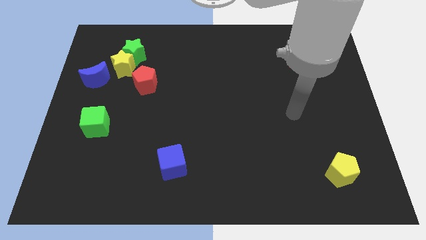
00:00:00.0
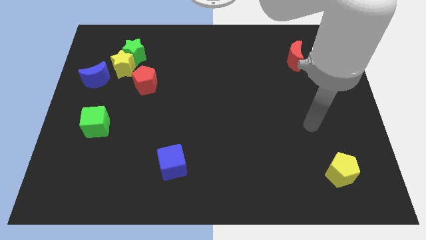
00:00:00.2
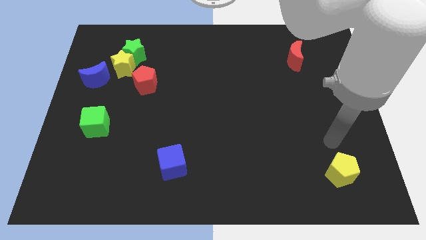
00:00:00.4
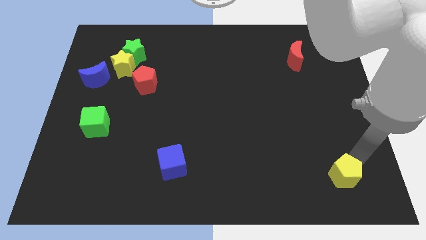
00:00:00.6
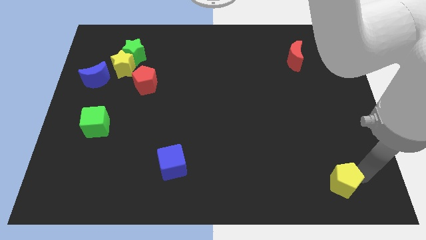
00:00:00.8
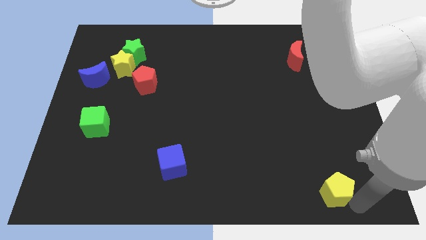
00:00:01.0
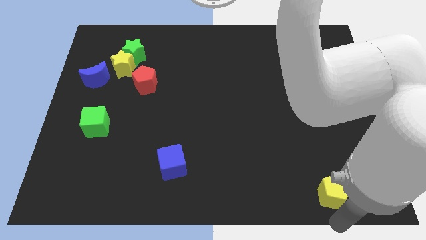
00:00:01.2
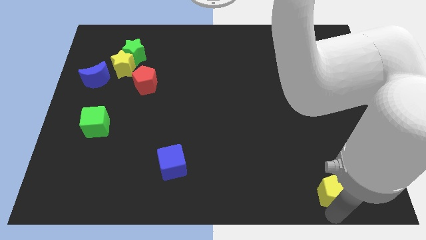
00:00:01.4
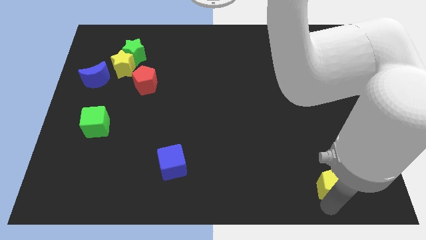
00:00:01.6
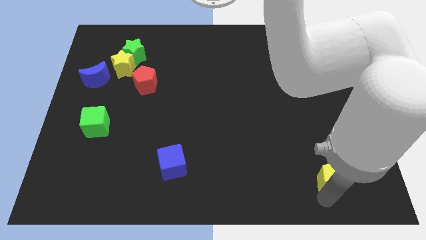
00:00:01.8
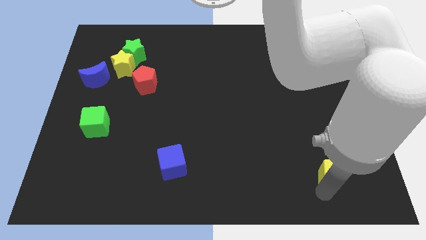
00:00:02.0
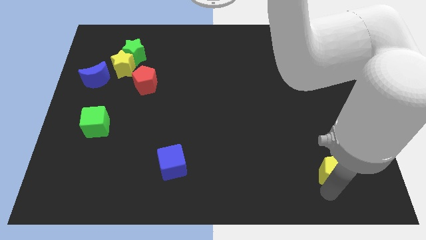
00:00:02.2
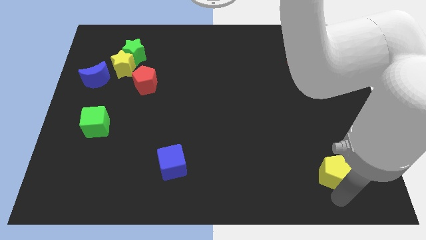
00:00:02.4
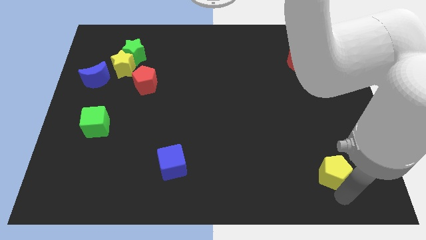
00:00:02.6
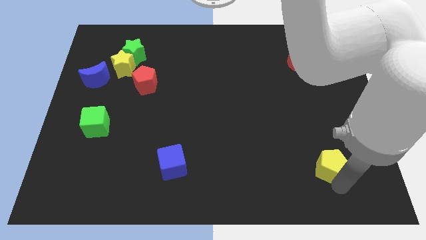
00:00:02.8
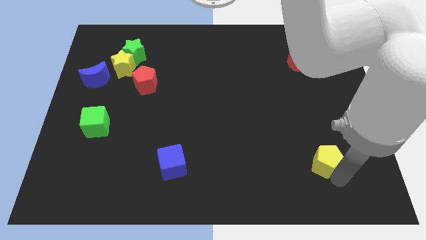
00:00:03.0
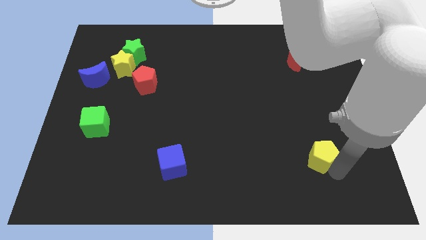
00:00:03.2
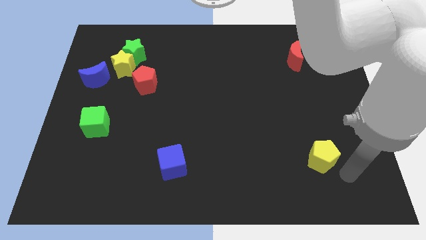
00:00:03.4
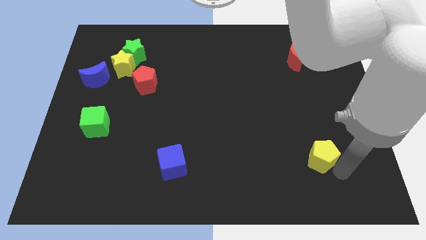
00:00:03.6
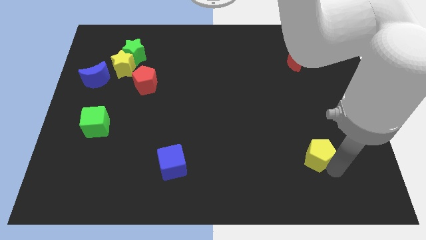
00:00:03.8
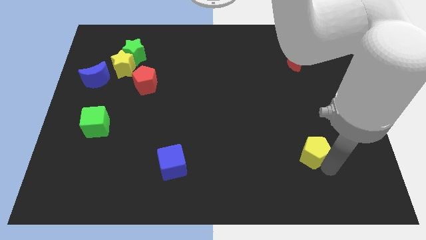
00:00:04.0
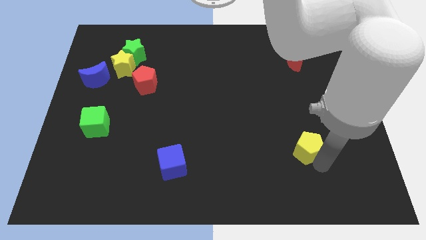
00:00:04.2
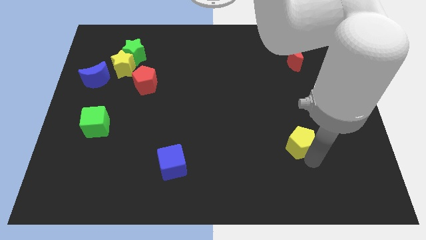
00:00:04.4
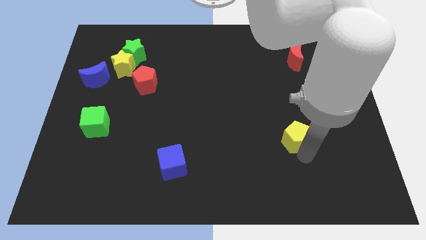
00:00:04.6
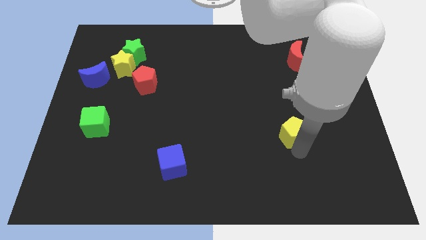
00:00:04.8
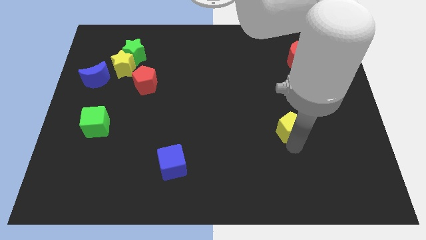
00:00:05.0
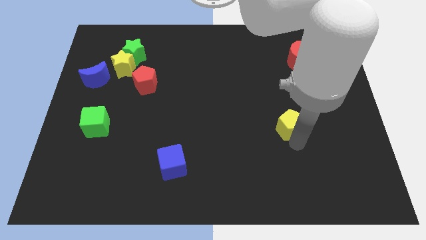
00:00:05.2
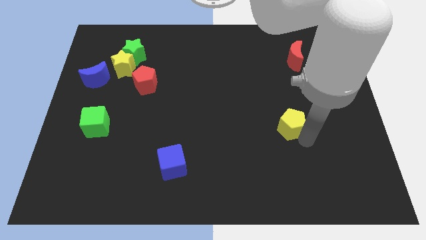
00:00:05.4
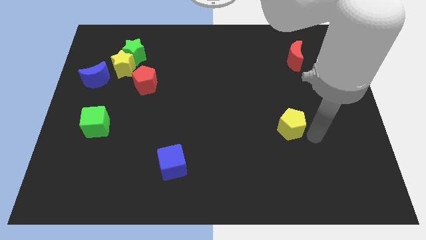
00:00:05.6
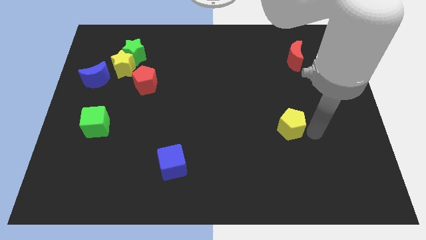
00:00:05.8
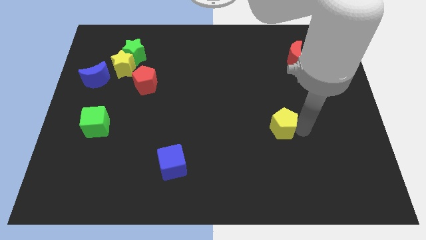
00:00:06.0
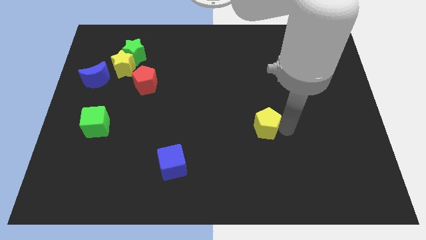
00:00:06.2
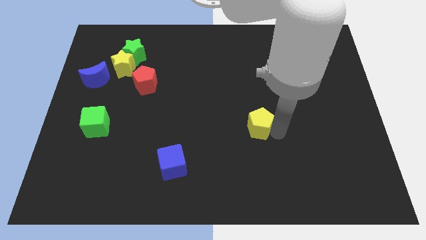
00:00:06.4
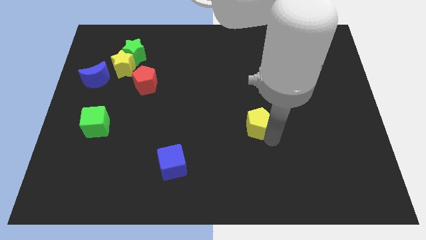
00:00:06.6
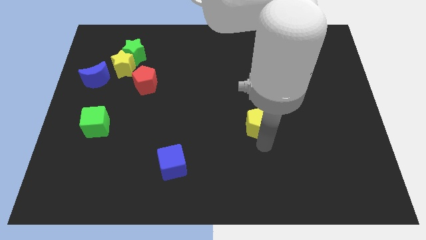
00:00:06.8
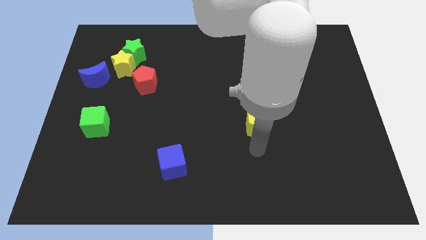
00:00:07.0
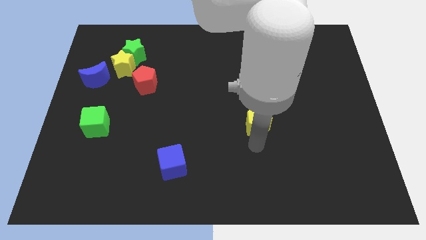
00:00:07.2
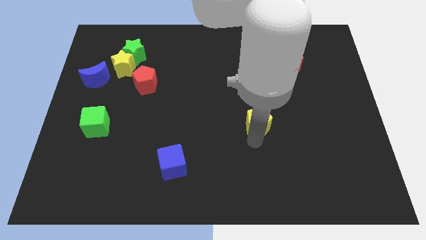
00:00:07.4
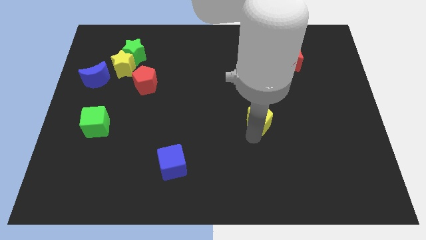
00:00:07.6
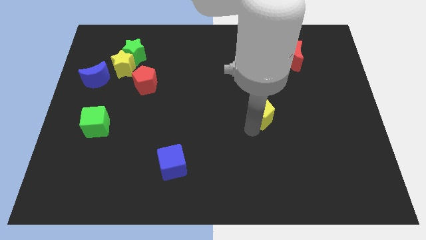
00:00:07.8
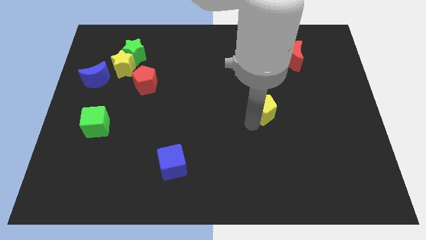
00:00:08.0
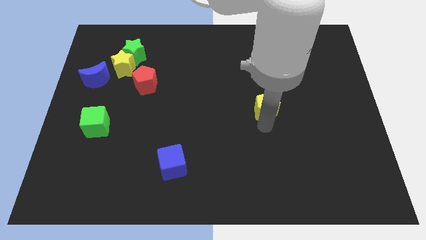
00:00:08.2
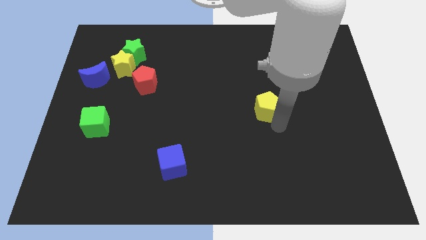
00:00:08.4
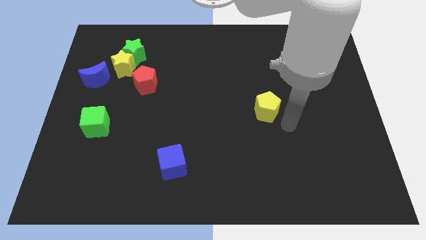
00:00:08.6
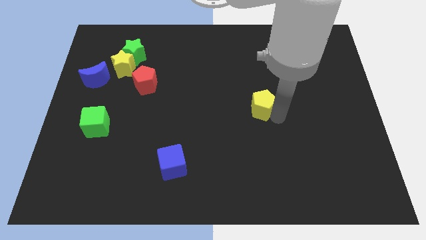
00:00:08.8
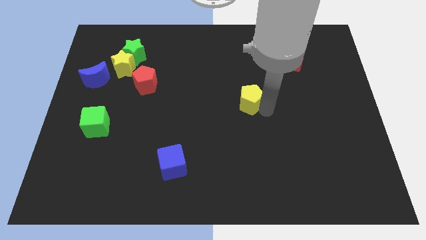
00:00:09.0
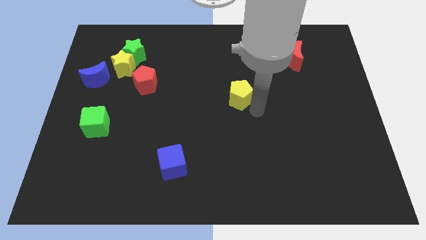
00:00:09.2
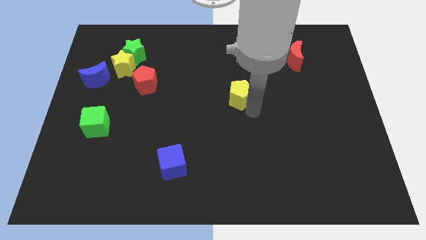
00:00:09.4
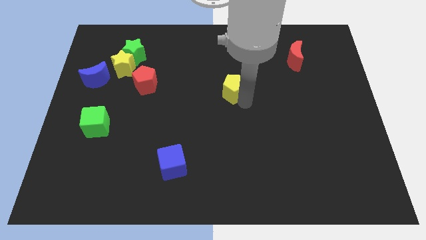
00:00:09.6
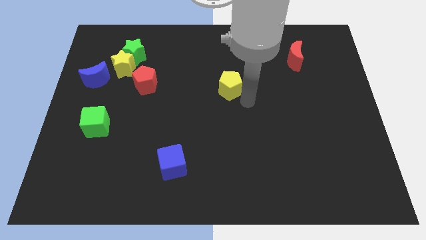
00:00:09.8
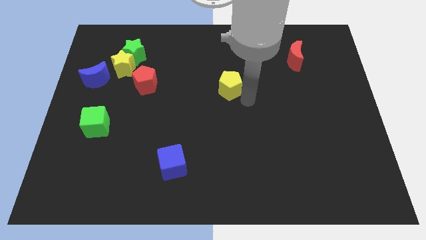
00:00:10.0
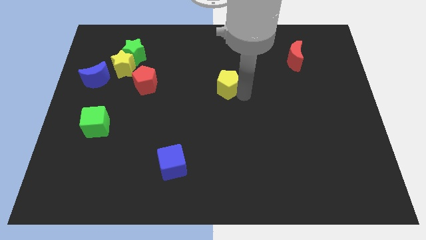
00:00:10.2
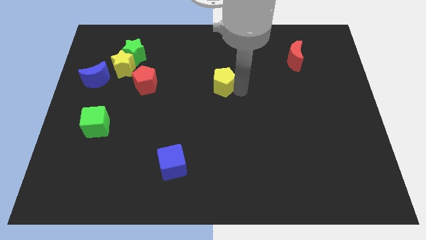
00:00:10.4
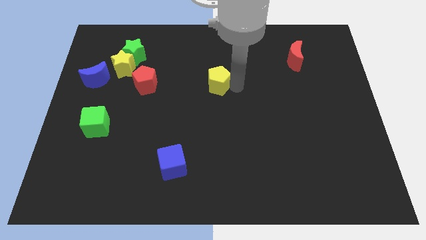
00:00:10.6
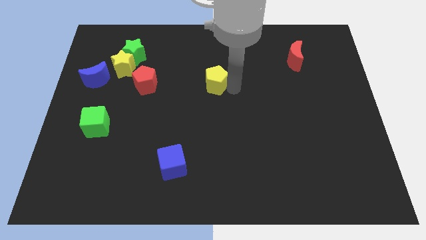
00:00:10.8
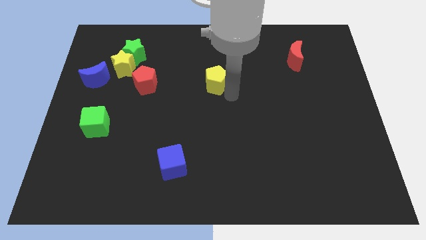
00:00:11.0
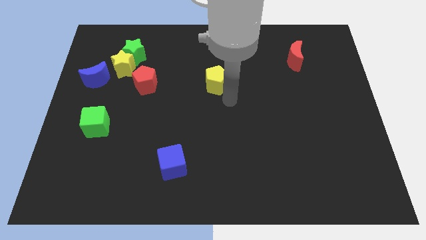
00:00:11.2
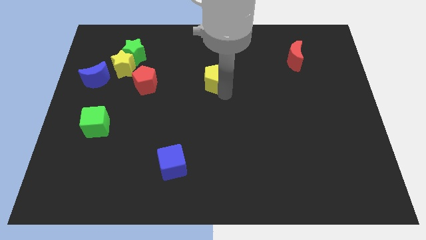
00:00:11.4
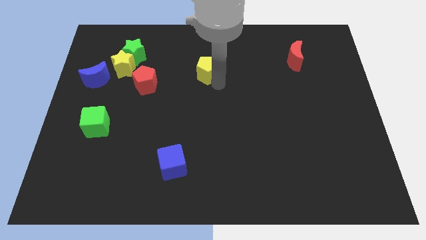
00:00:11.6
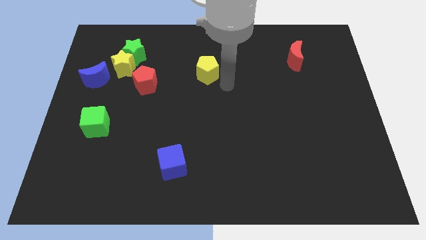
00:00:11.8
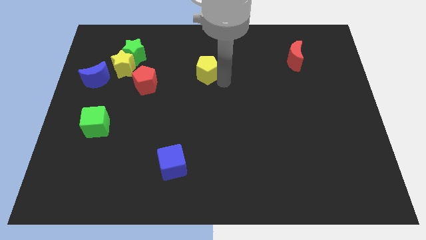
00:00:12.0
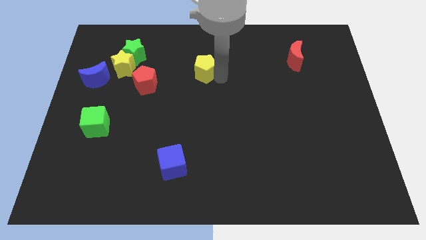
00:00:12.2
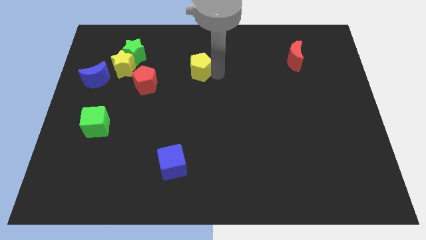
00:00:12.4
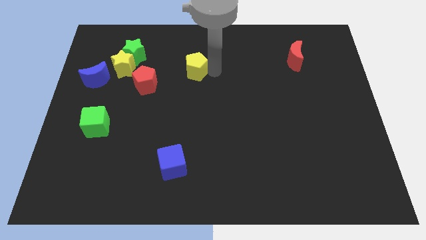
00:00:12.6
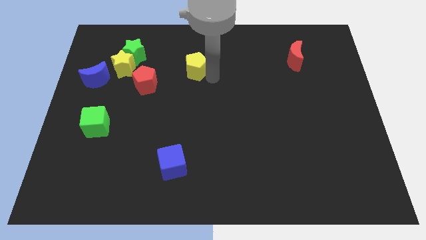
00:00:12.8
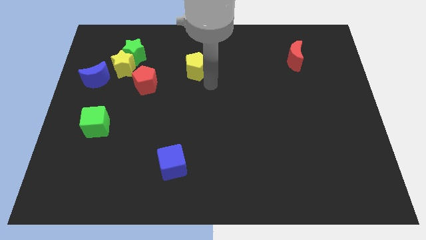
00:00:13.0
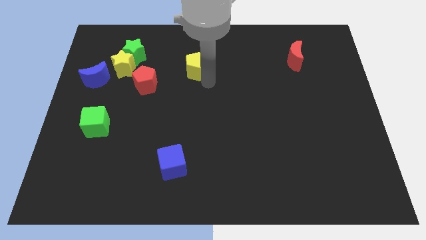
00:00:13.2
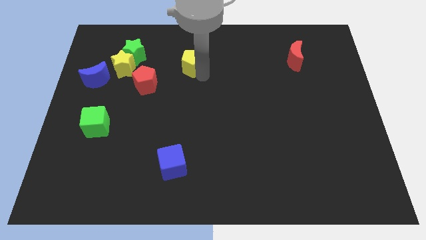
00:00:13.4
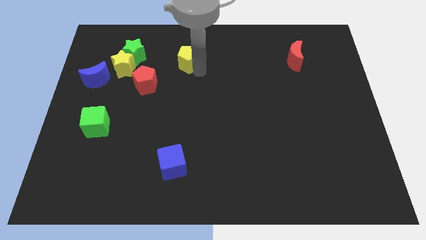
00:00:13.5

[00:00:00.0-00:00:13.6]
slide the yellow pentagon right of the green star

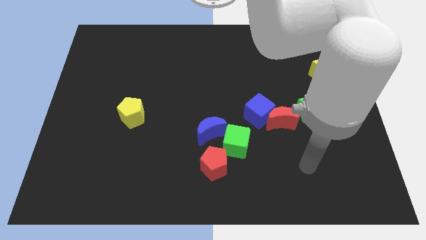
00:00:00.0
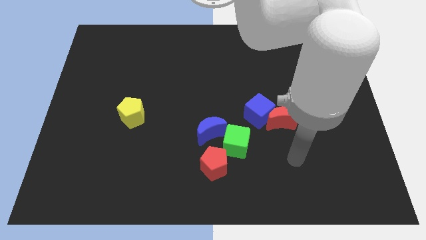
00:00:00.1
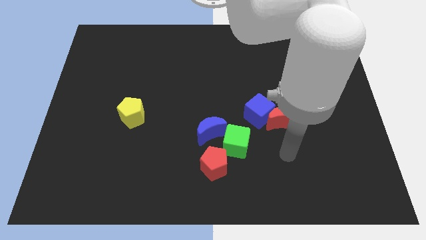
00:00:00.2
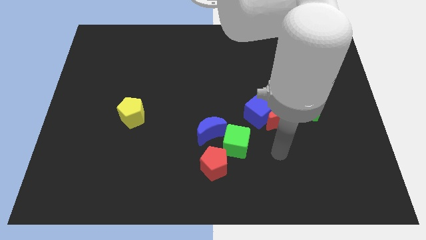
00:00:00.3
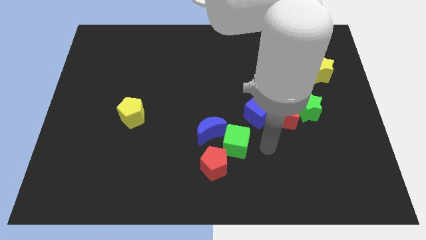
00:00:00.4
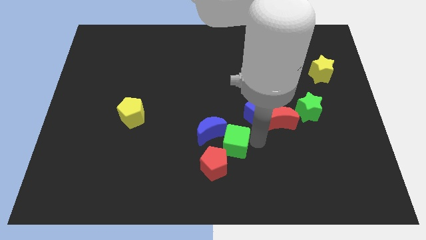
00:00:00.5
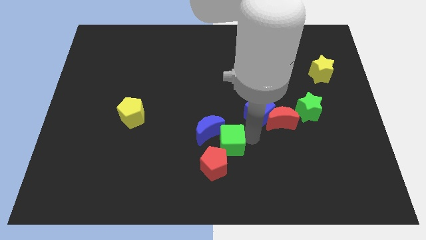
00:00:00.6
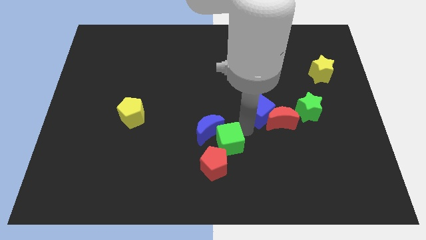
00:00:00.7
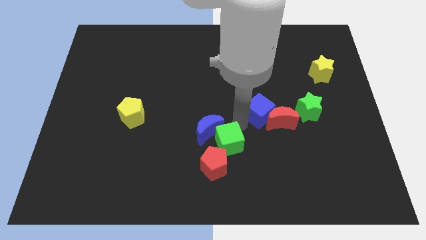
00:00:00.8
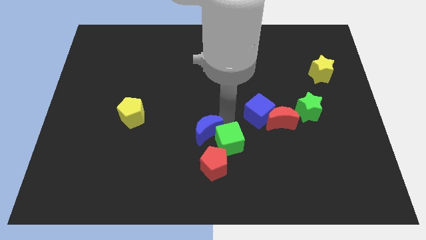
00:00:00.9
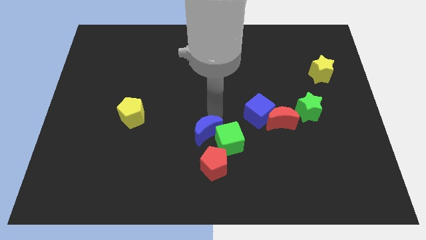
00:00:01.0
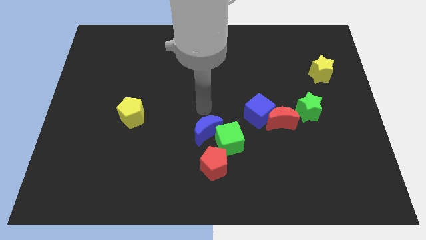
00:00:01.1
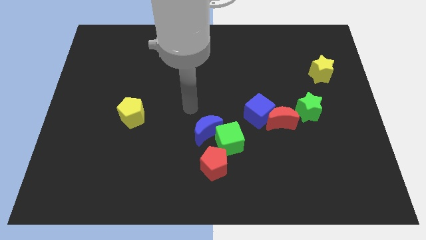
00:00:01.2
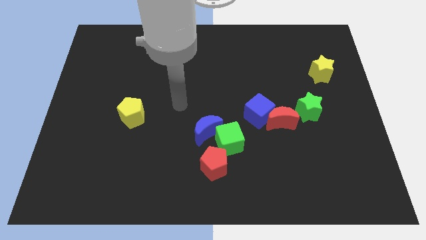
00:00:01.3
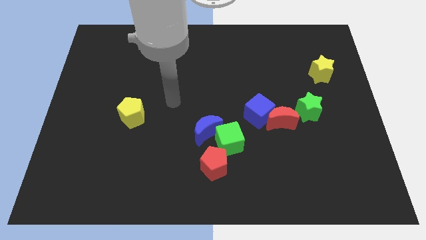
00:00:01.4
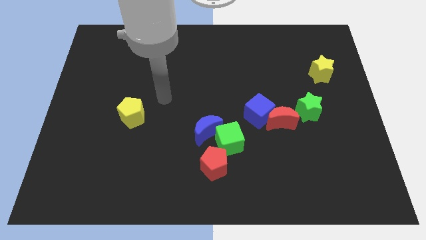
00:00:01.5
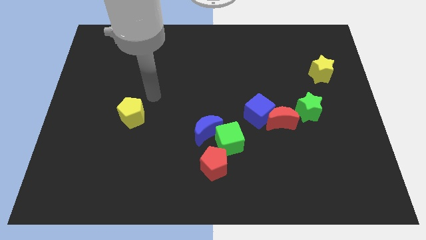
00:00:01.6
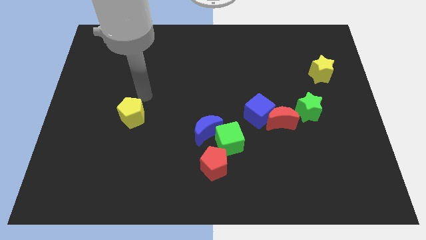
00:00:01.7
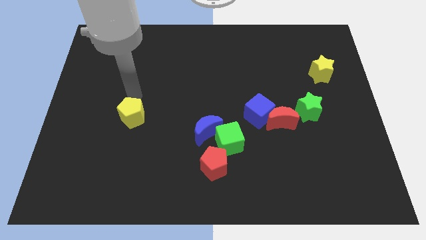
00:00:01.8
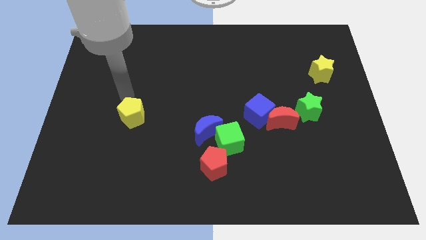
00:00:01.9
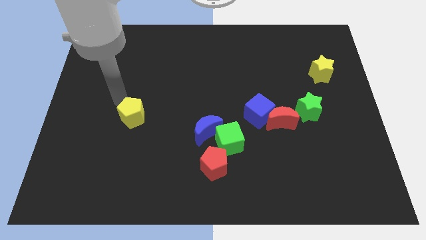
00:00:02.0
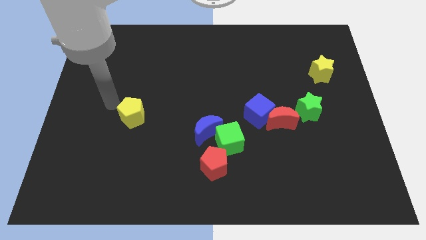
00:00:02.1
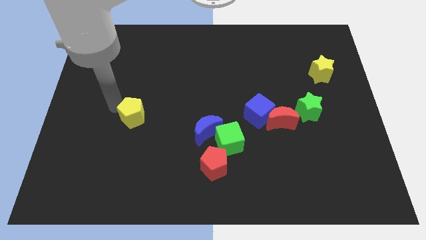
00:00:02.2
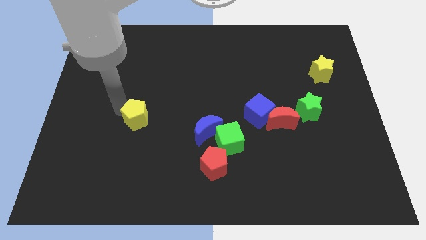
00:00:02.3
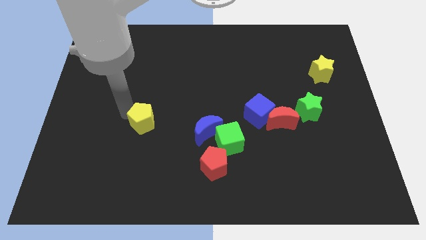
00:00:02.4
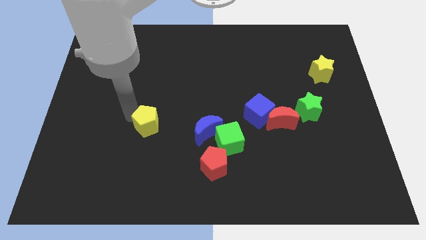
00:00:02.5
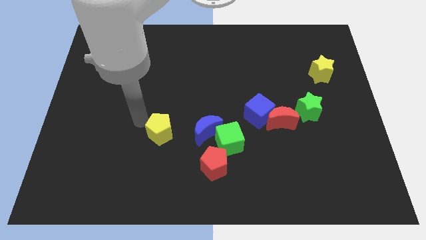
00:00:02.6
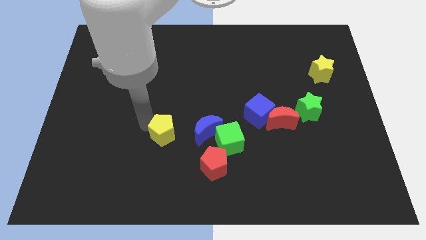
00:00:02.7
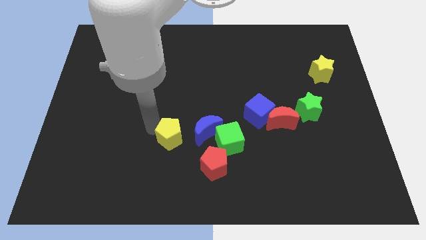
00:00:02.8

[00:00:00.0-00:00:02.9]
push the yellow pentagon diagonally up and to the left of the red pentagon
